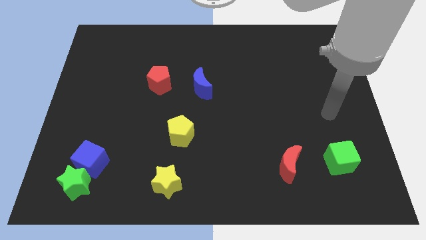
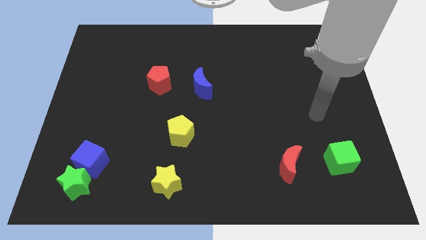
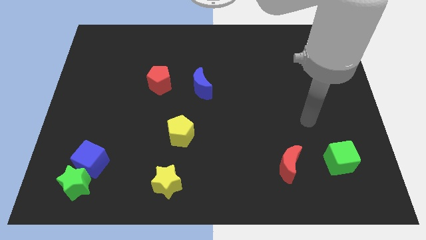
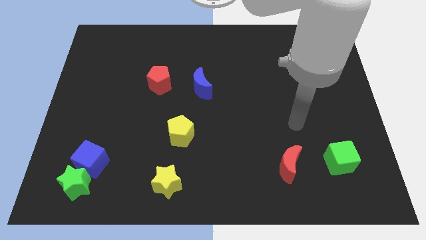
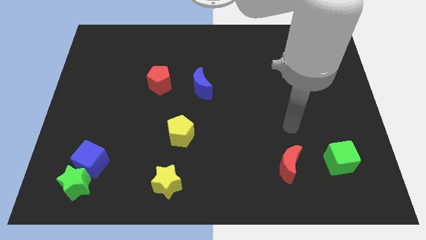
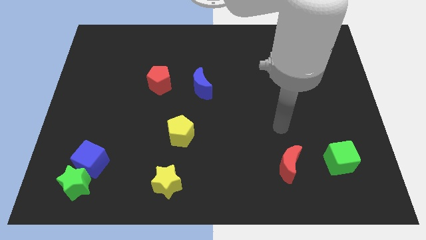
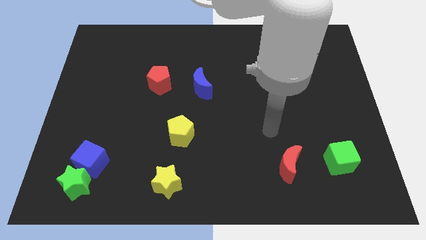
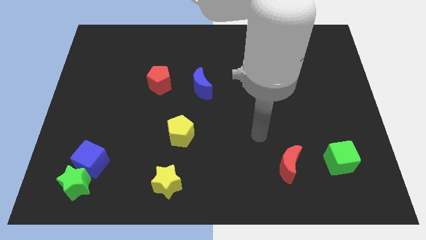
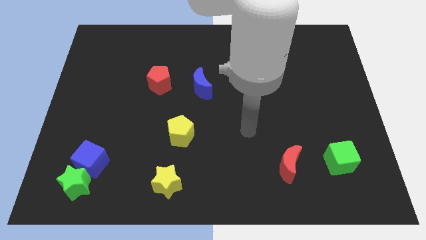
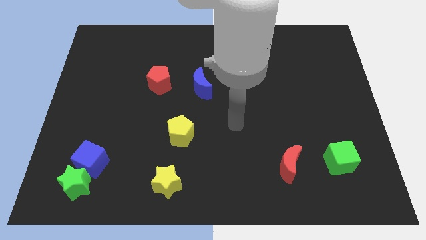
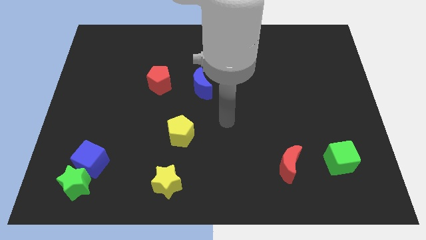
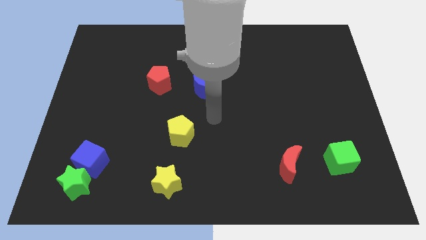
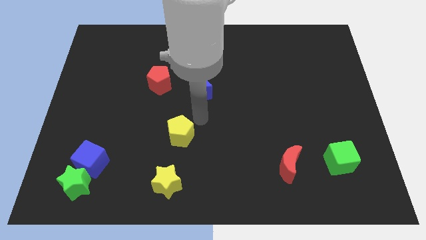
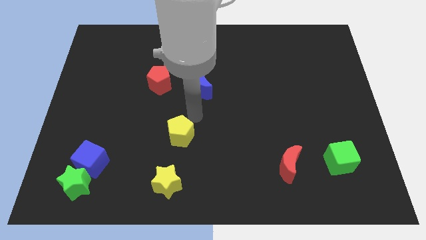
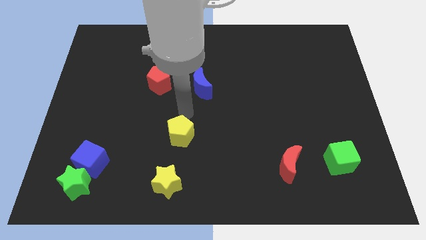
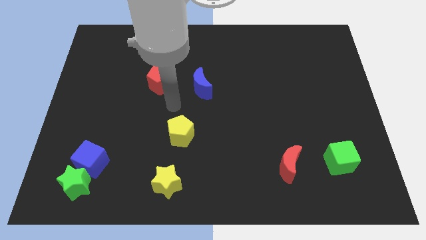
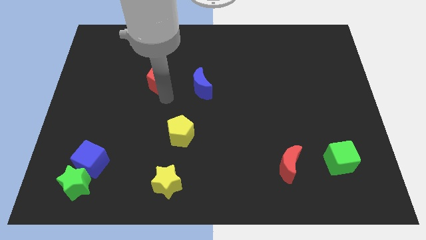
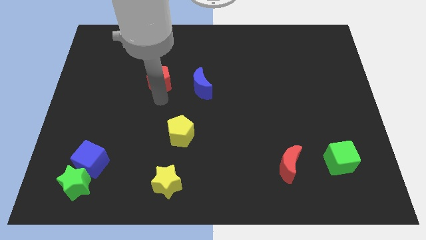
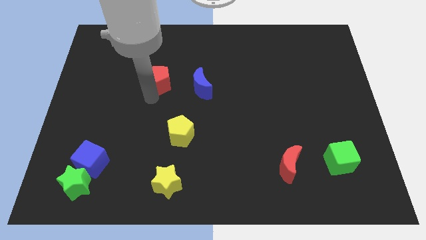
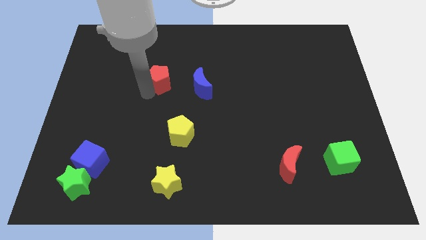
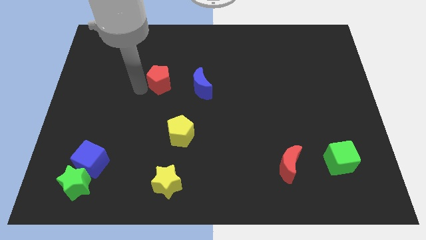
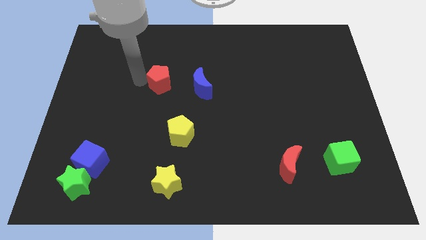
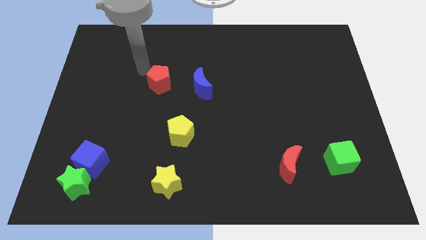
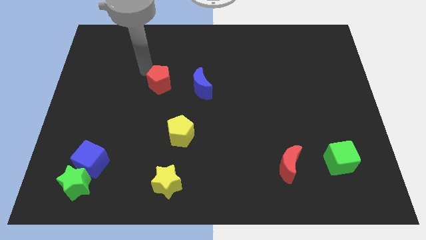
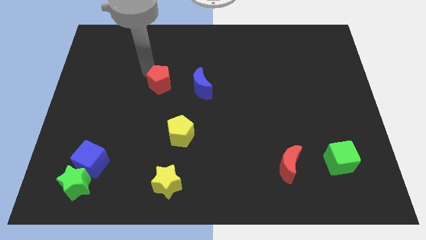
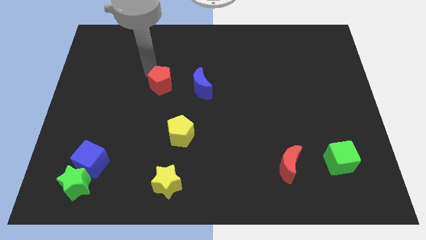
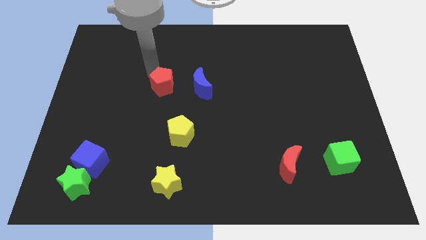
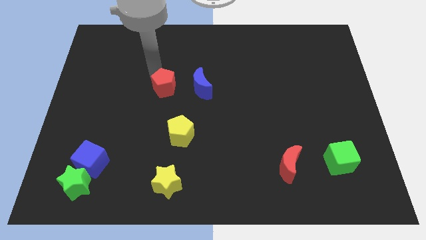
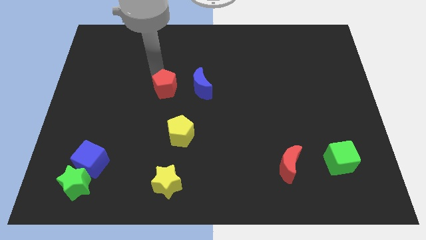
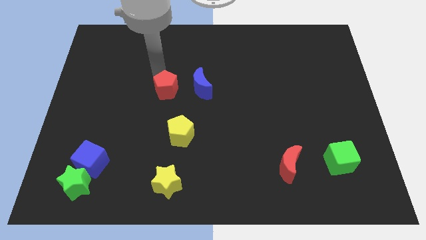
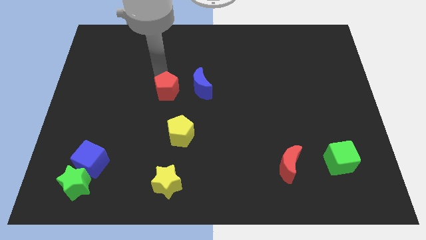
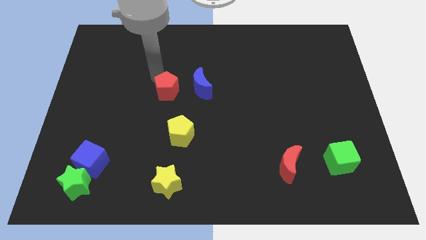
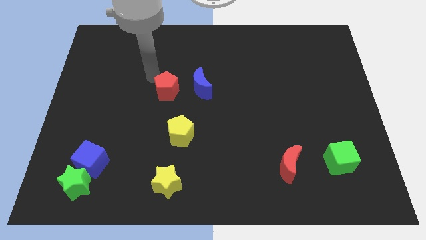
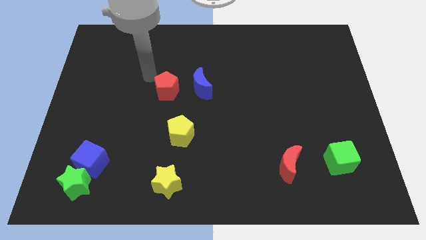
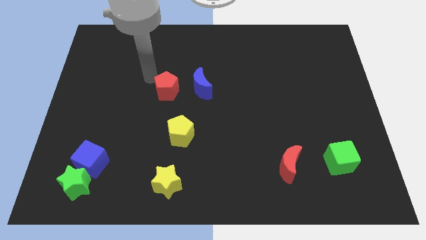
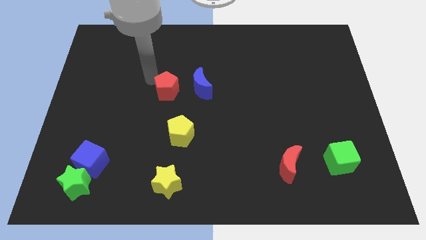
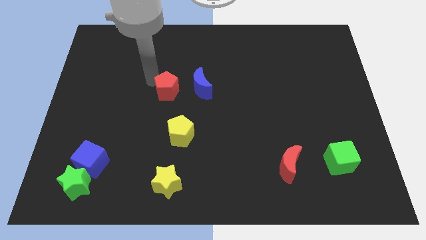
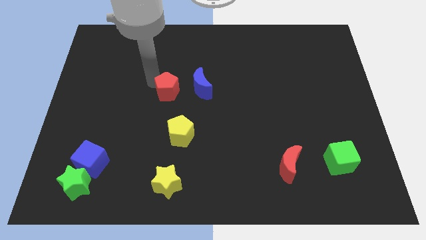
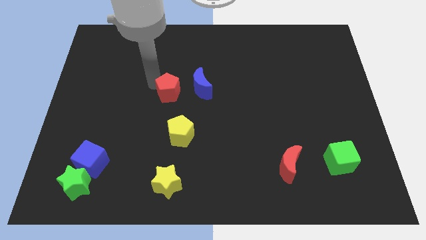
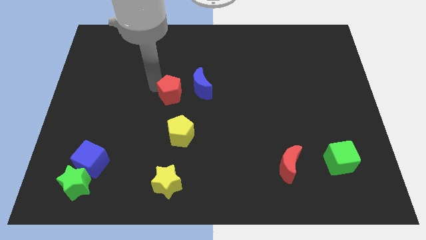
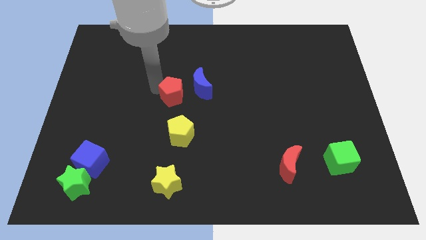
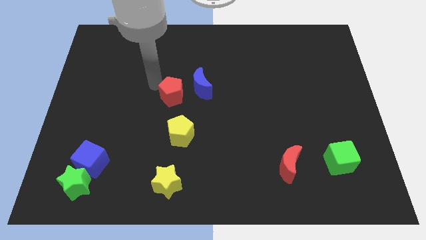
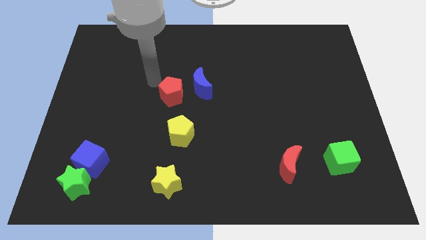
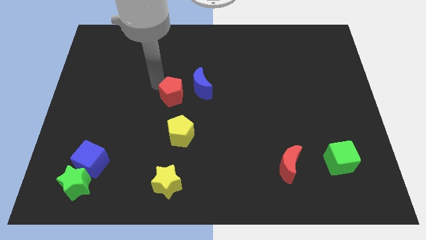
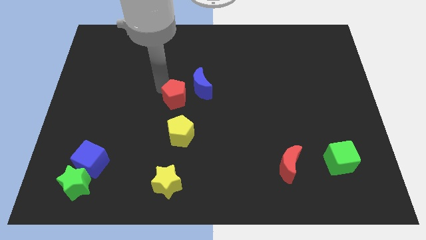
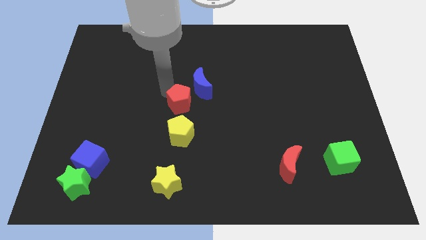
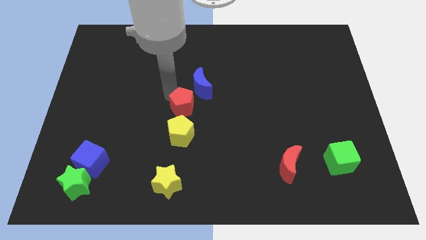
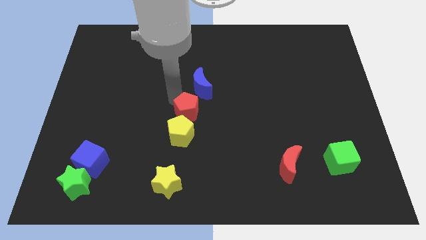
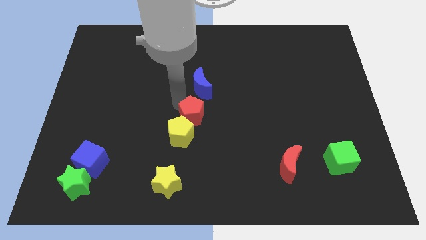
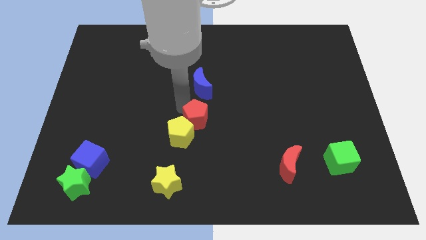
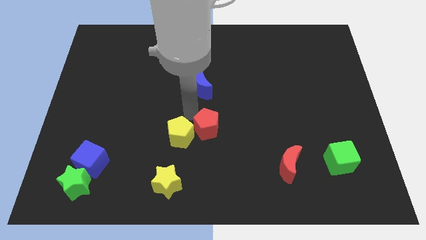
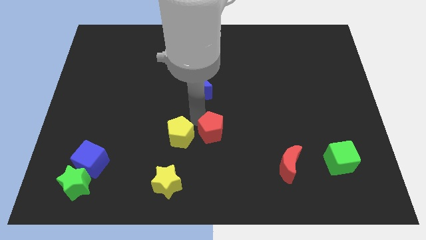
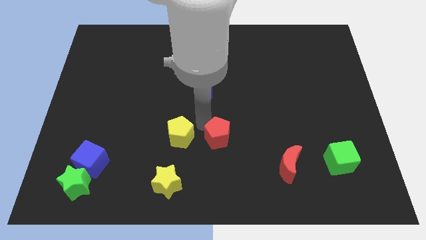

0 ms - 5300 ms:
push the red pentagon diagonally down and right

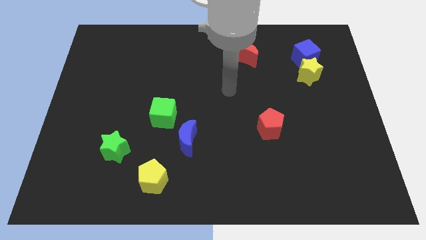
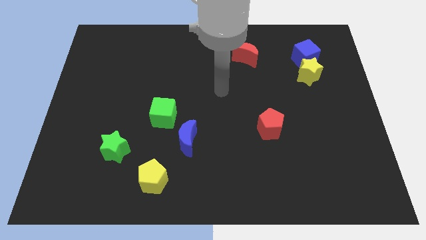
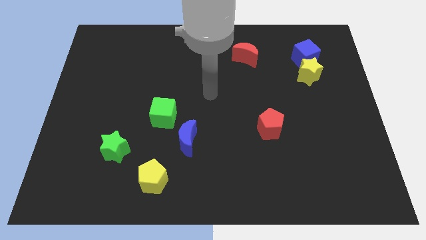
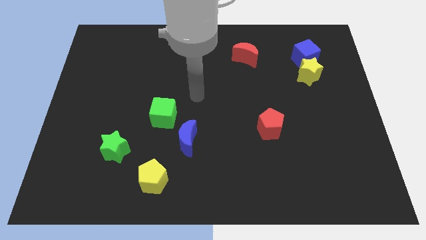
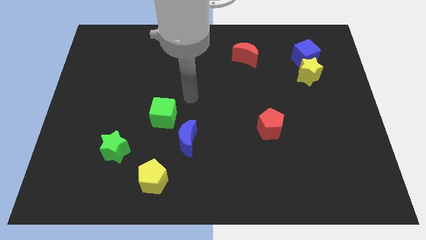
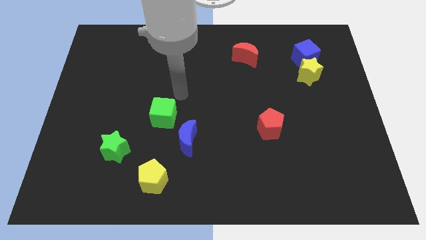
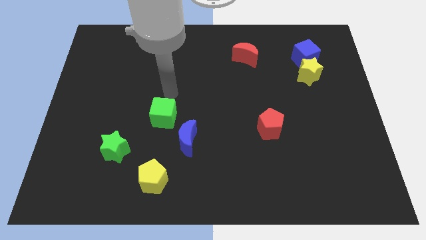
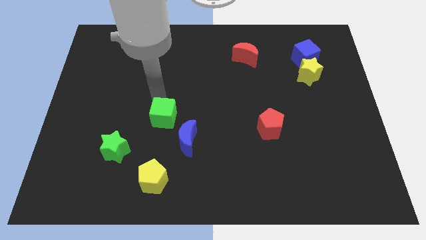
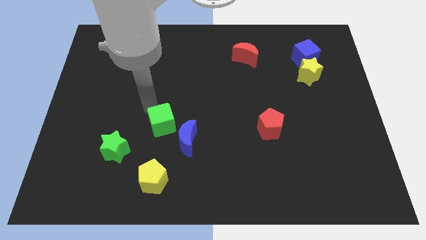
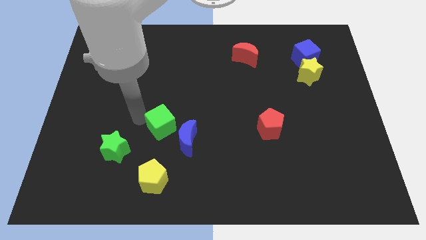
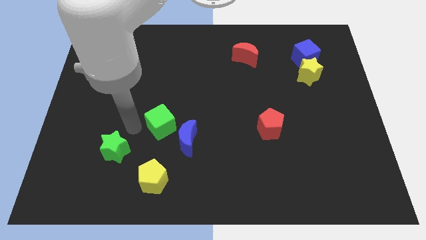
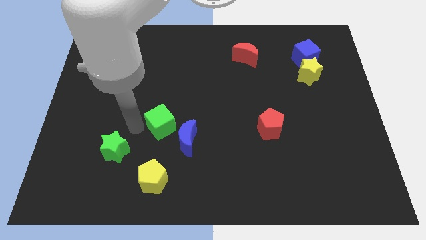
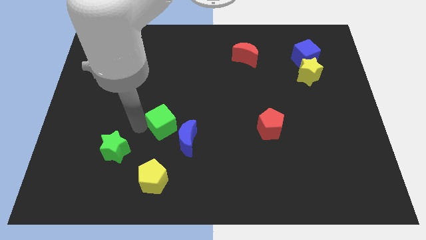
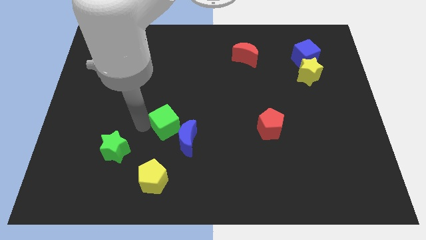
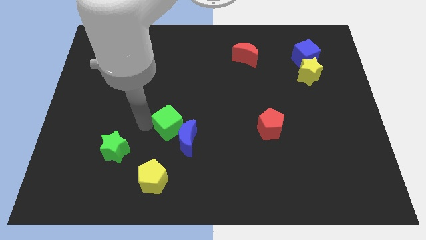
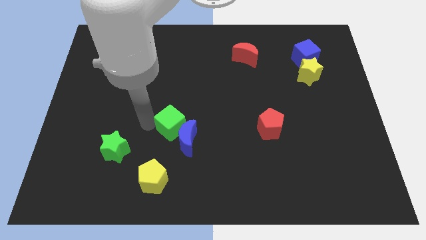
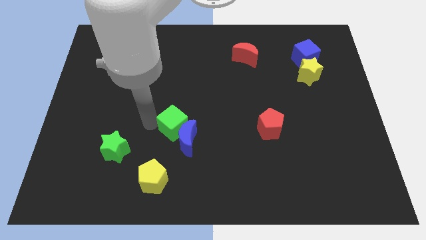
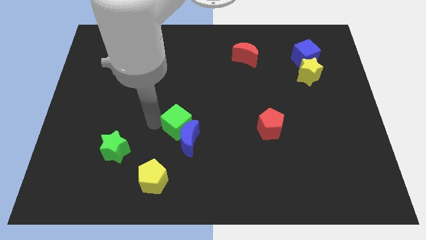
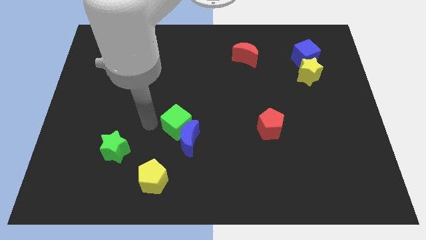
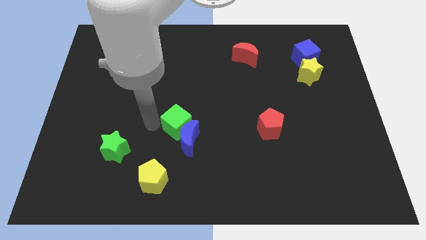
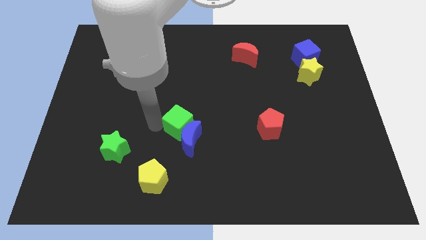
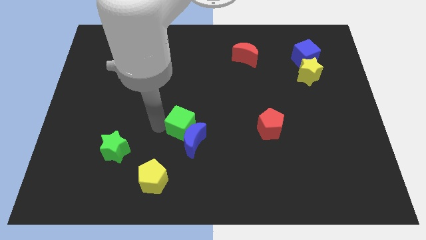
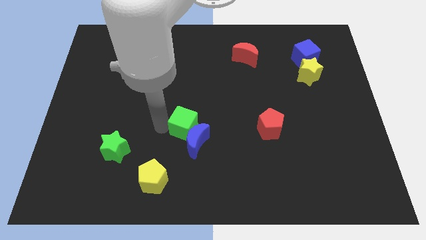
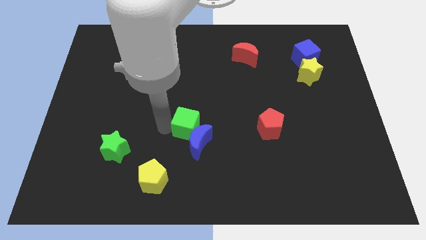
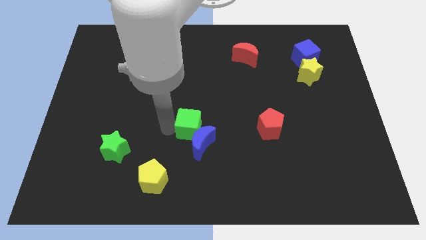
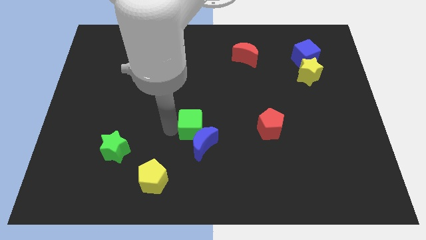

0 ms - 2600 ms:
slide the green cube downwards and to the right diagonally a bit

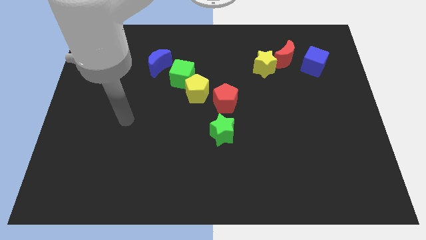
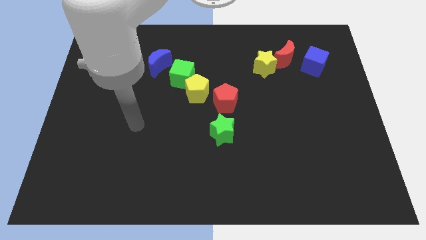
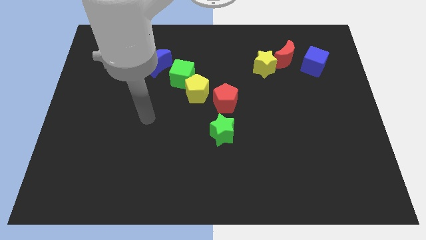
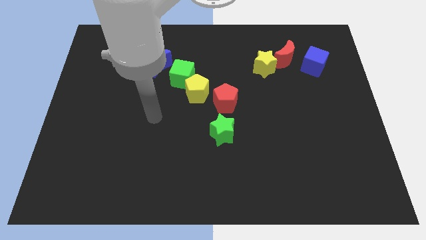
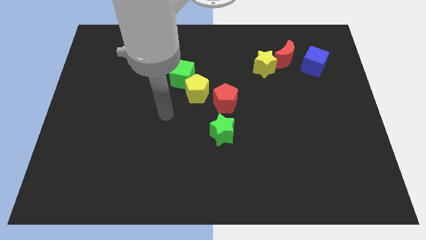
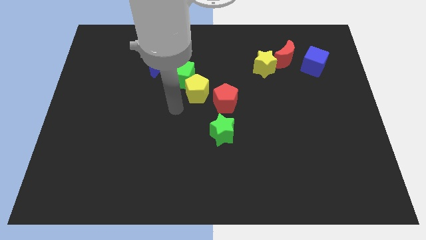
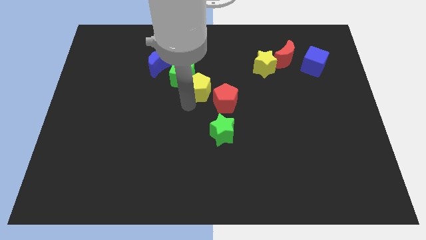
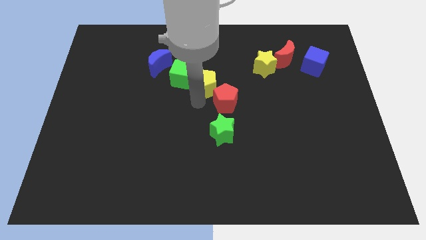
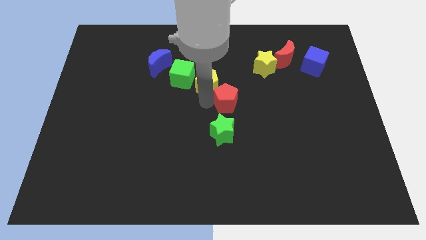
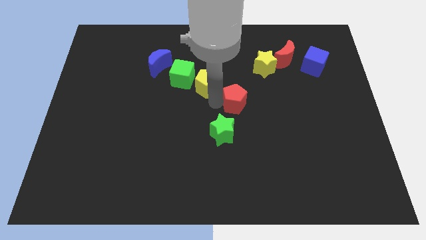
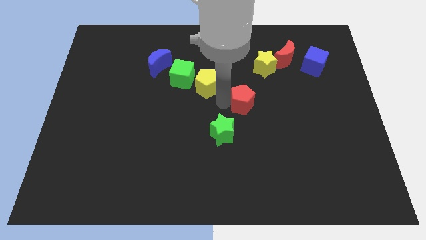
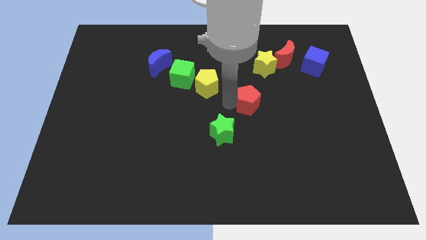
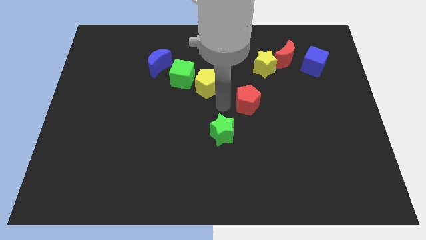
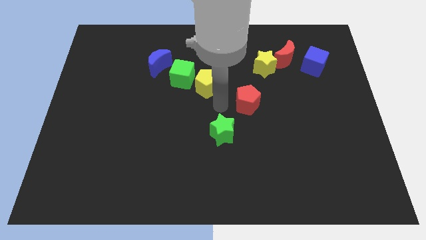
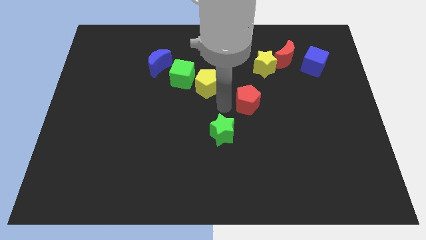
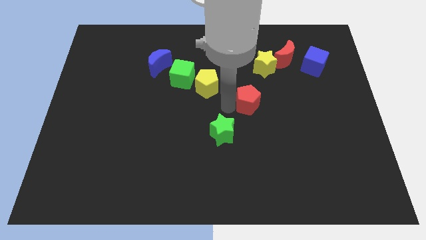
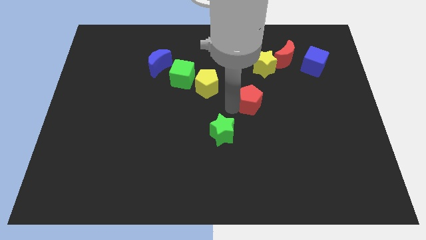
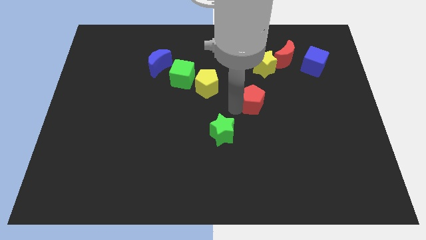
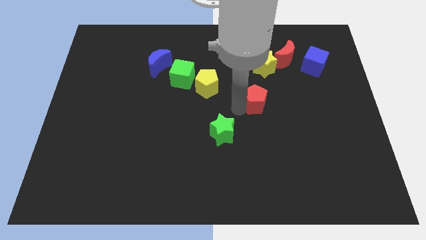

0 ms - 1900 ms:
push the red pentagon to the right slightly
